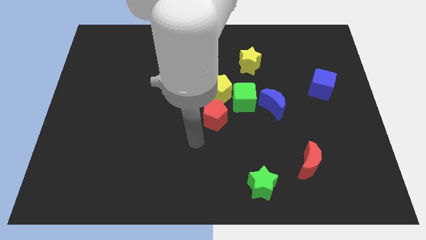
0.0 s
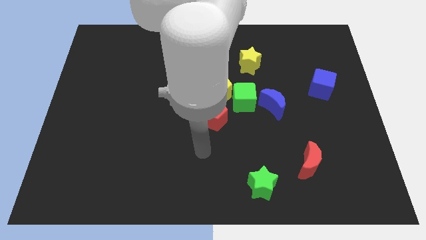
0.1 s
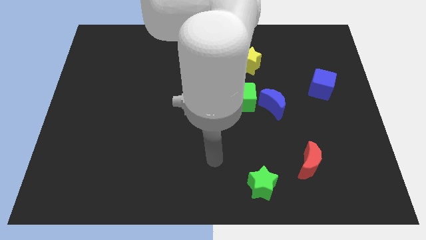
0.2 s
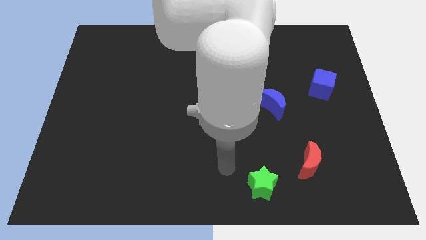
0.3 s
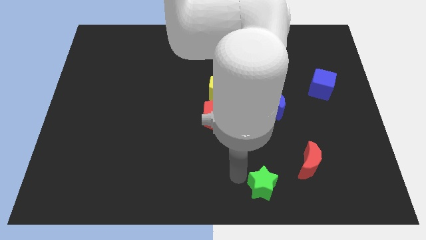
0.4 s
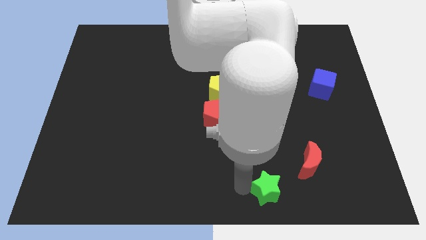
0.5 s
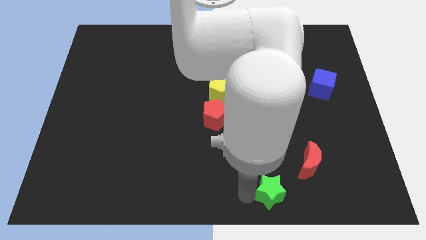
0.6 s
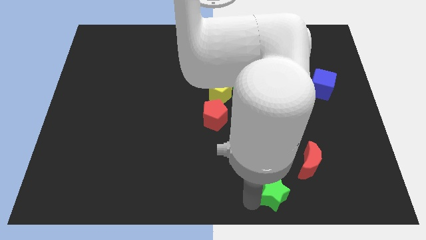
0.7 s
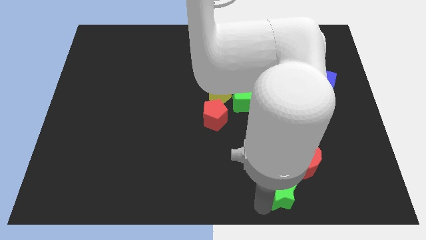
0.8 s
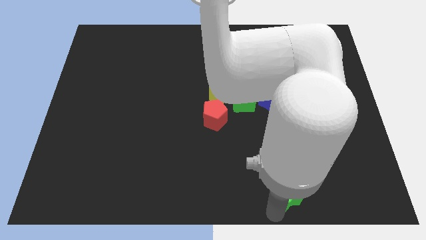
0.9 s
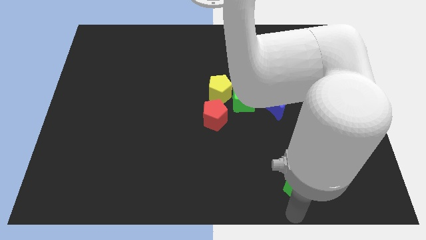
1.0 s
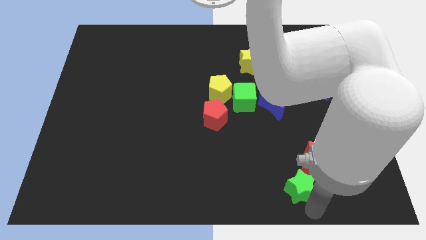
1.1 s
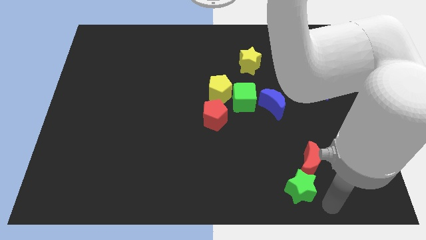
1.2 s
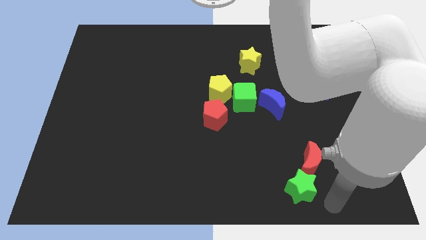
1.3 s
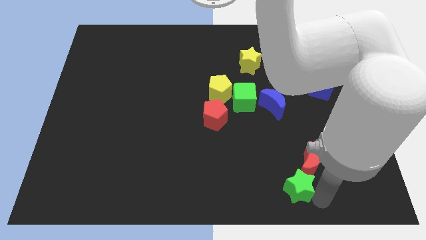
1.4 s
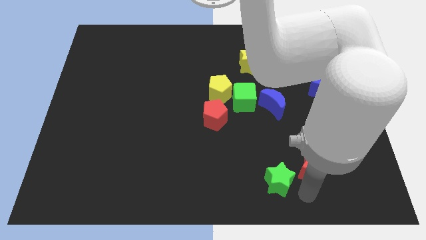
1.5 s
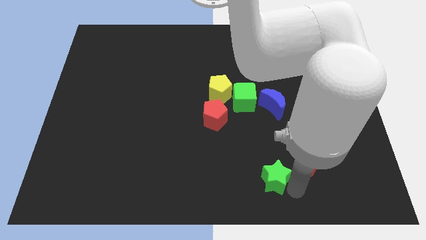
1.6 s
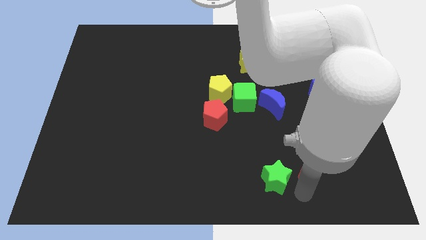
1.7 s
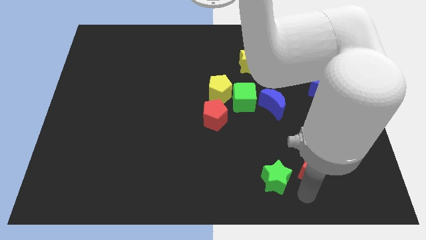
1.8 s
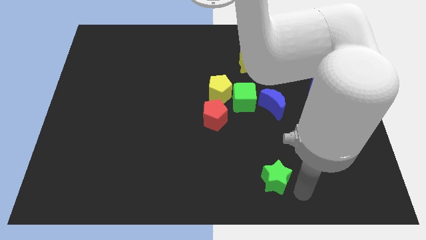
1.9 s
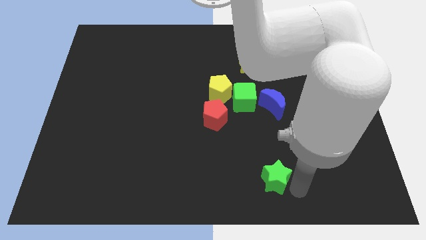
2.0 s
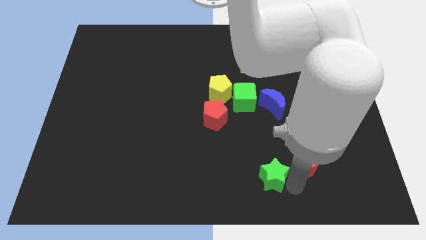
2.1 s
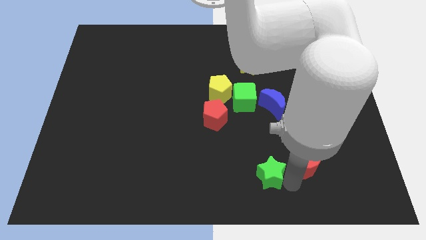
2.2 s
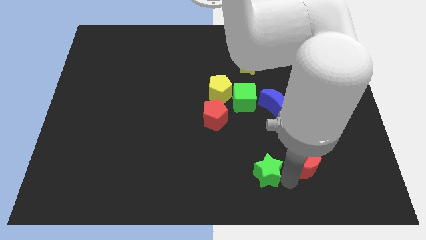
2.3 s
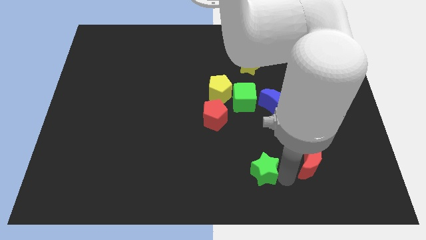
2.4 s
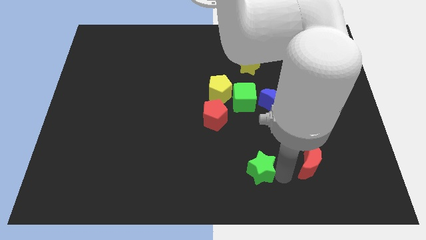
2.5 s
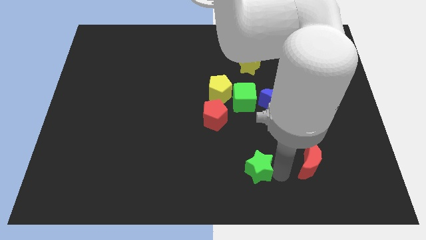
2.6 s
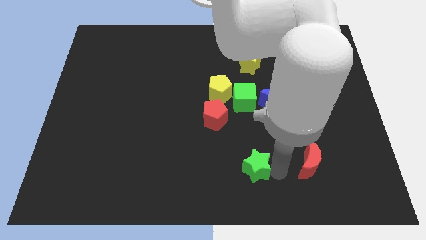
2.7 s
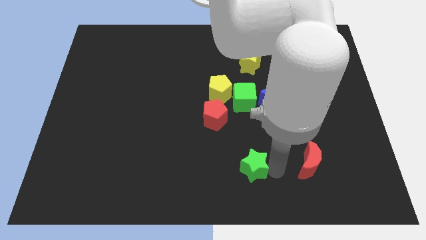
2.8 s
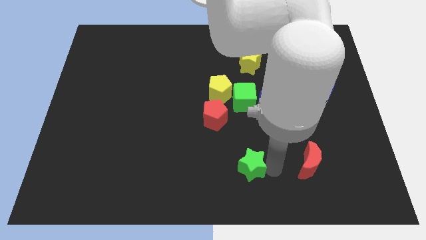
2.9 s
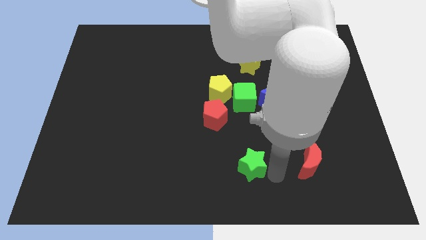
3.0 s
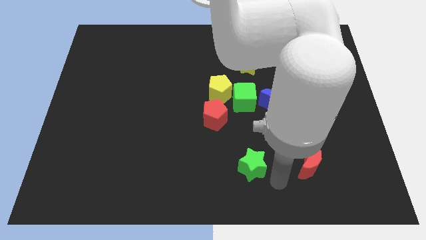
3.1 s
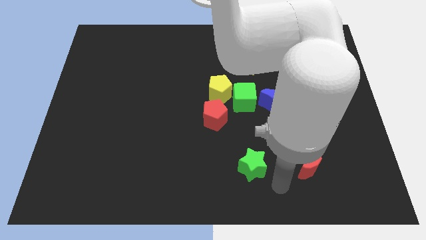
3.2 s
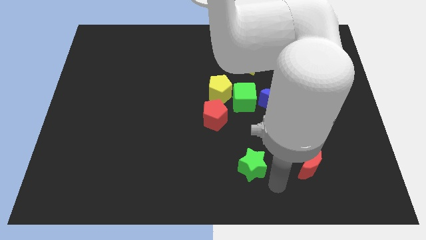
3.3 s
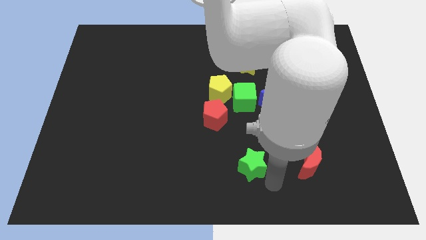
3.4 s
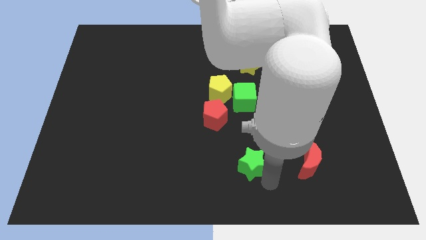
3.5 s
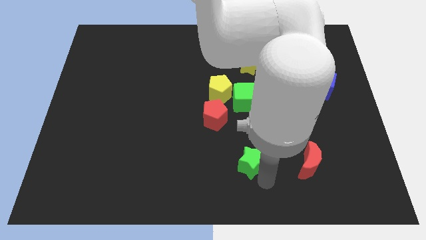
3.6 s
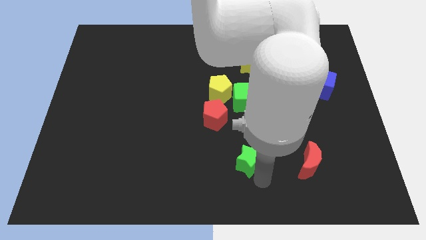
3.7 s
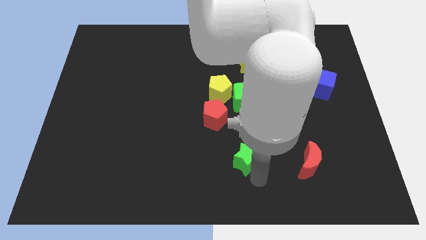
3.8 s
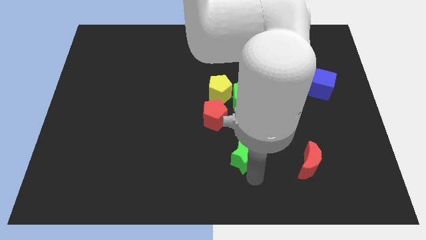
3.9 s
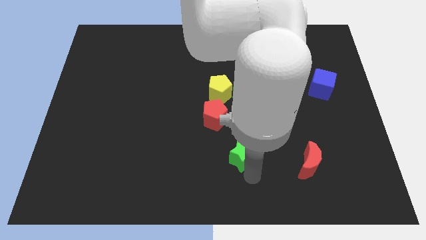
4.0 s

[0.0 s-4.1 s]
slightly push the green star up and to the left

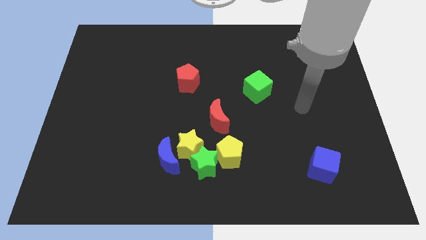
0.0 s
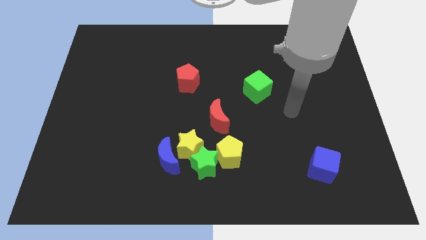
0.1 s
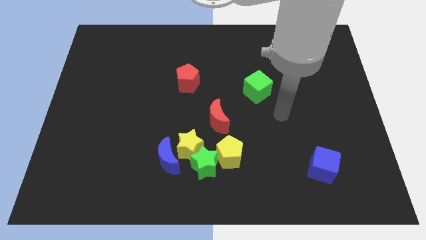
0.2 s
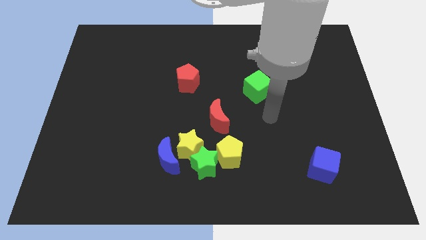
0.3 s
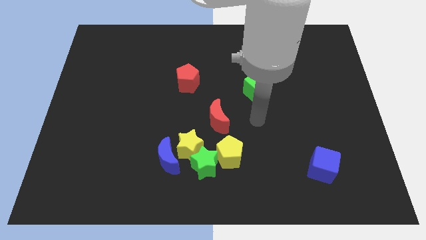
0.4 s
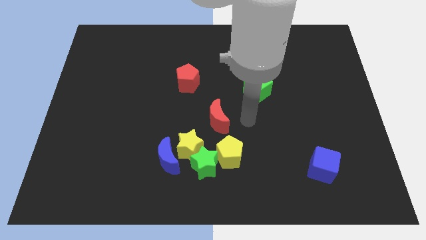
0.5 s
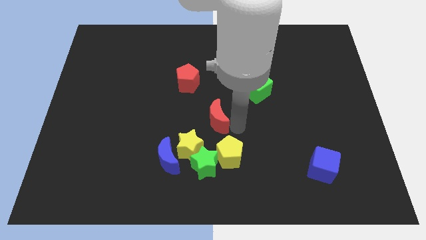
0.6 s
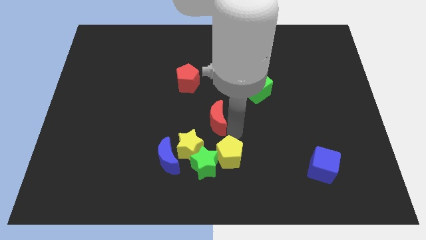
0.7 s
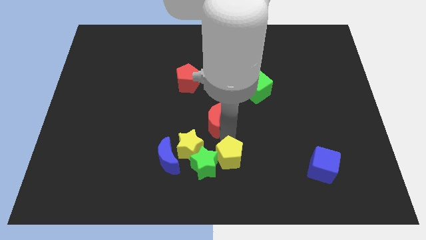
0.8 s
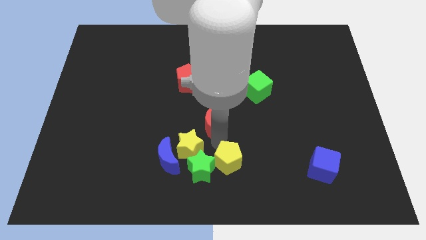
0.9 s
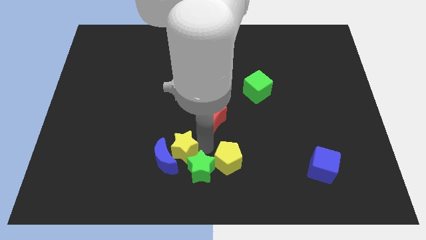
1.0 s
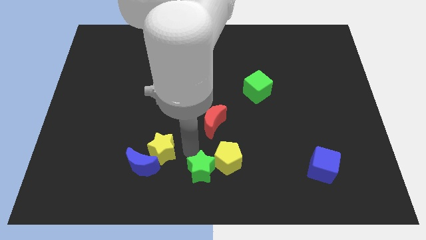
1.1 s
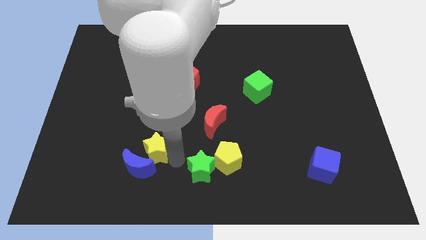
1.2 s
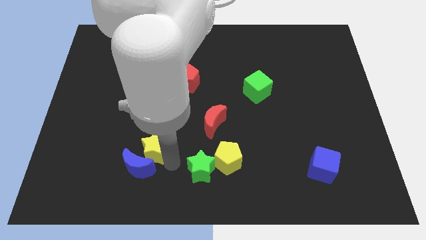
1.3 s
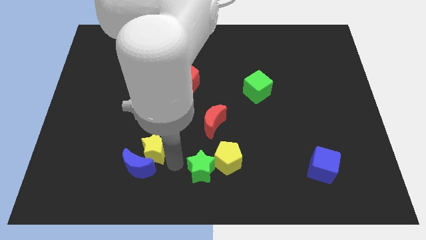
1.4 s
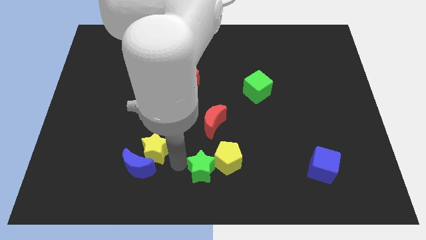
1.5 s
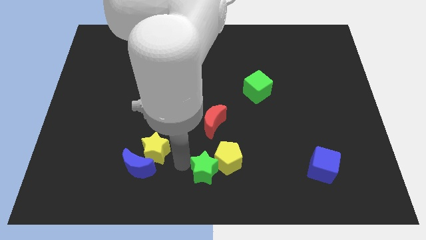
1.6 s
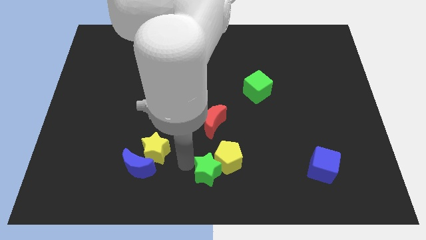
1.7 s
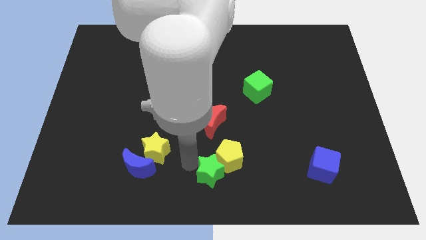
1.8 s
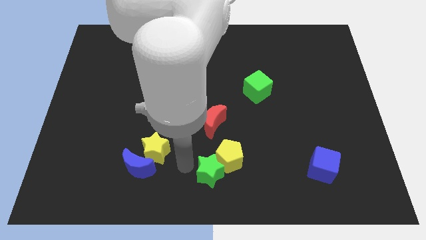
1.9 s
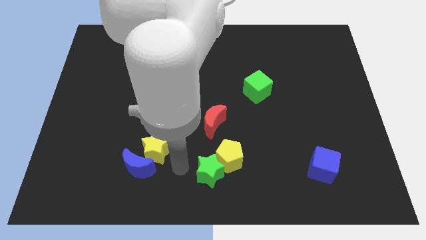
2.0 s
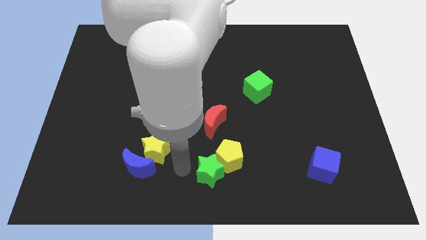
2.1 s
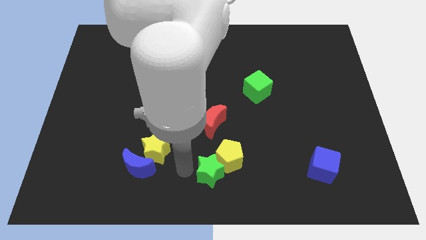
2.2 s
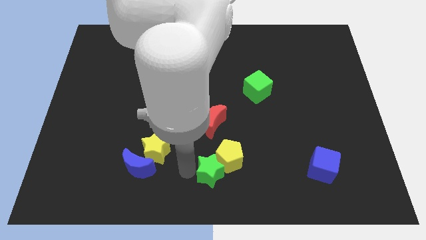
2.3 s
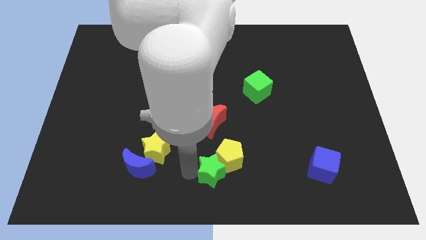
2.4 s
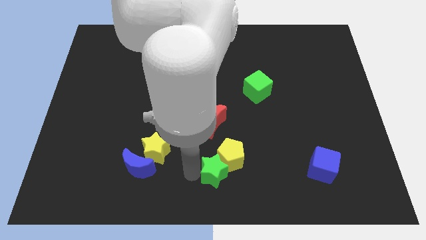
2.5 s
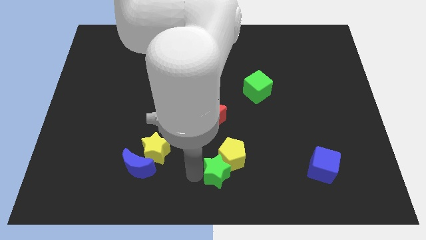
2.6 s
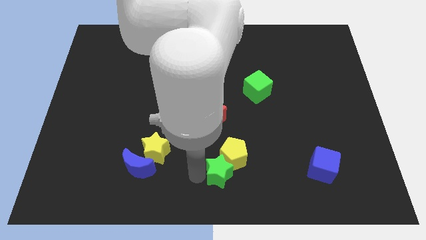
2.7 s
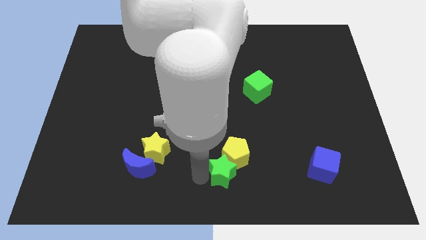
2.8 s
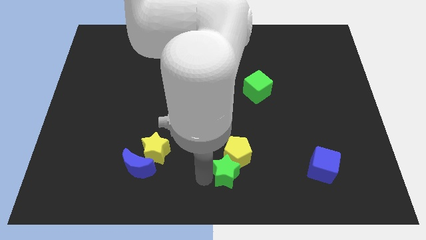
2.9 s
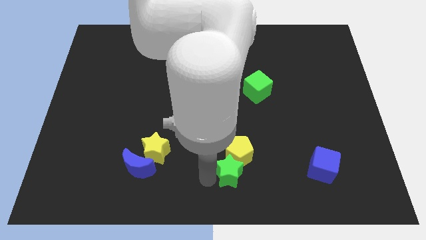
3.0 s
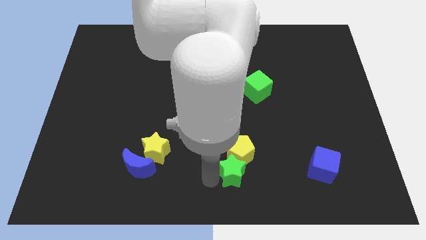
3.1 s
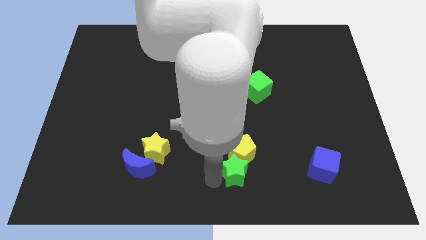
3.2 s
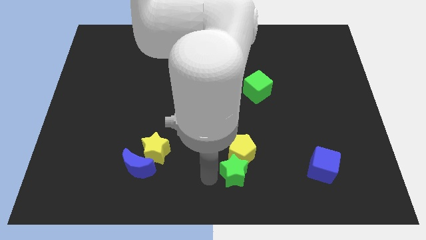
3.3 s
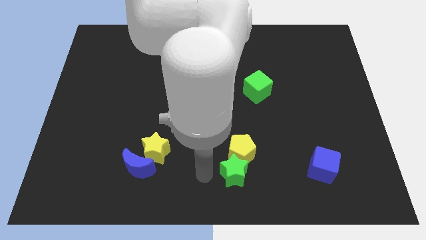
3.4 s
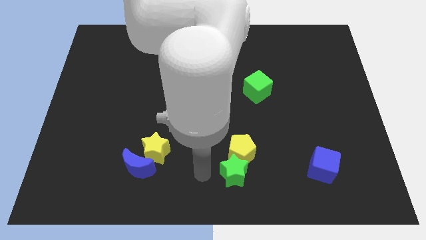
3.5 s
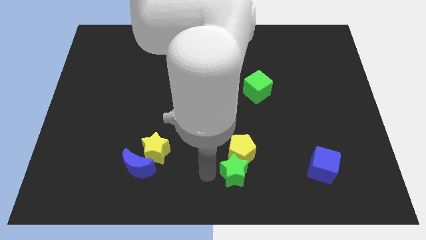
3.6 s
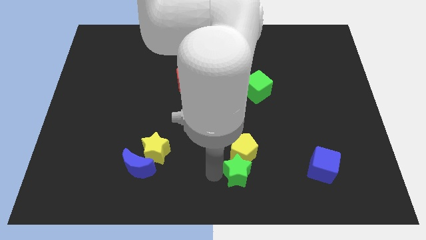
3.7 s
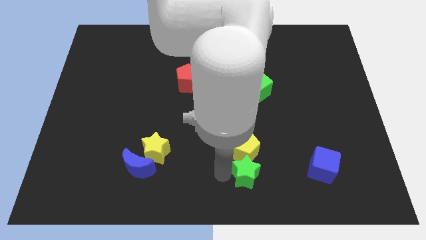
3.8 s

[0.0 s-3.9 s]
slide the green star slightly right
